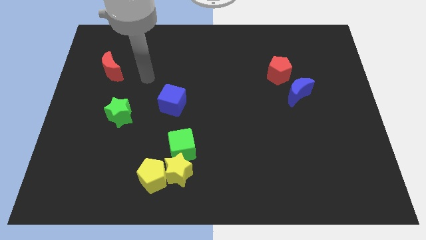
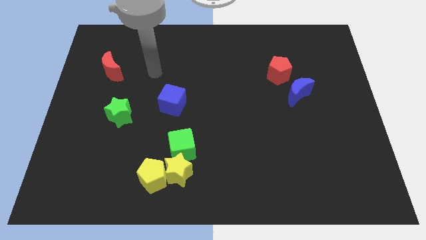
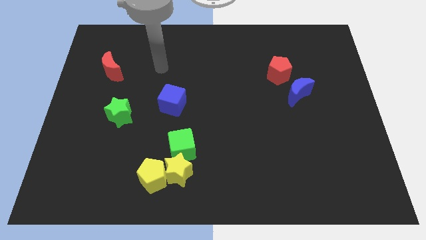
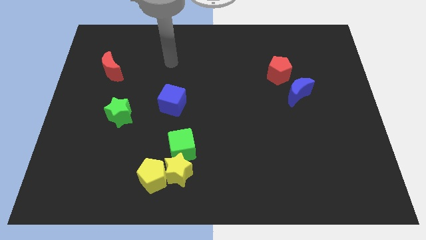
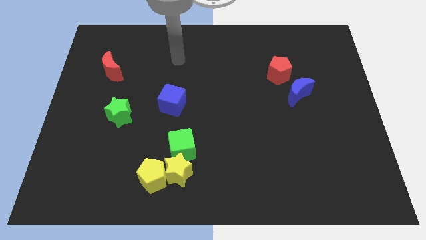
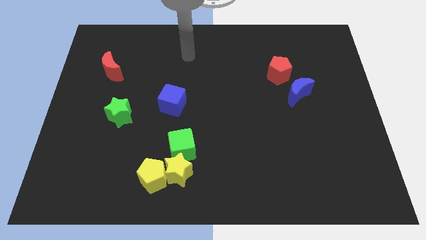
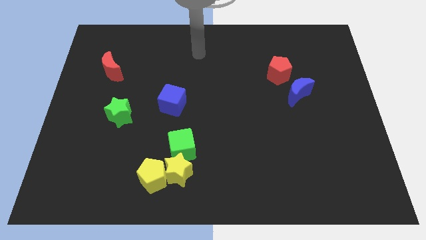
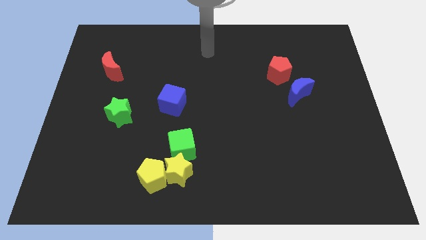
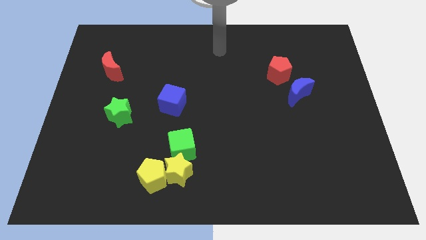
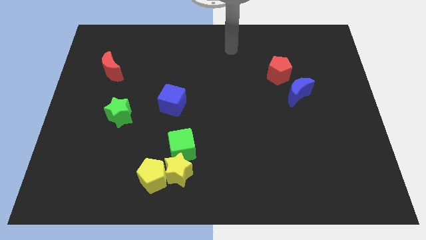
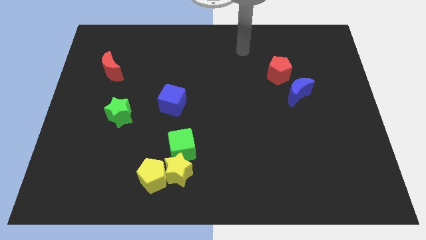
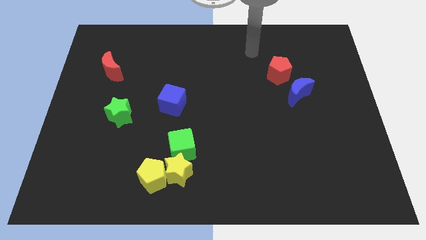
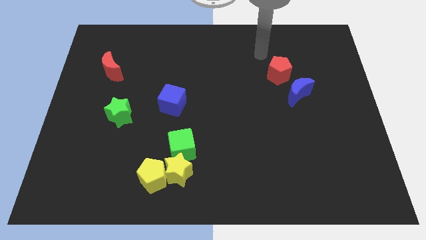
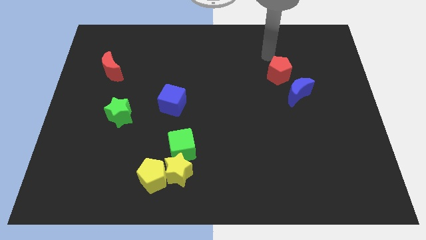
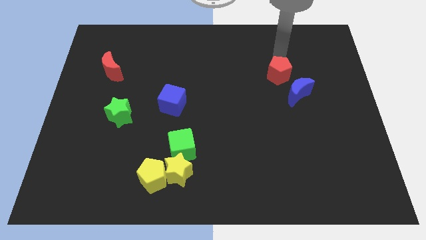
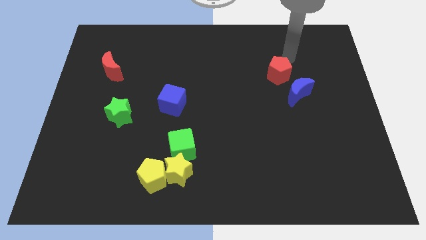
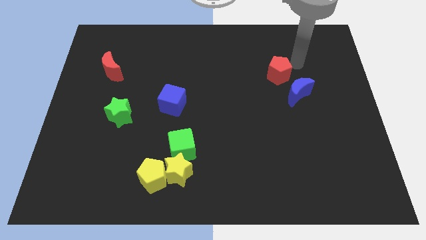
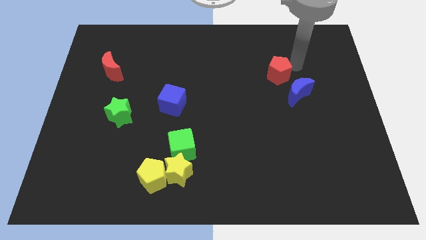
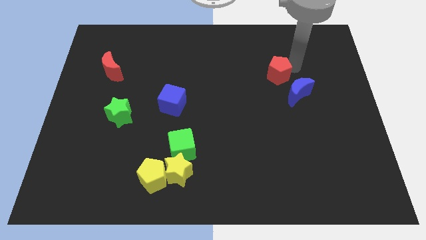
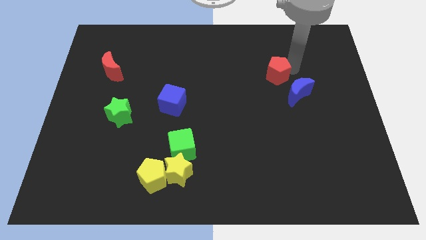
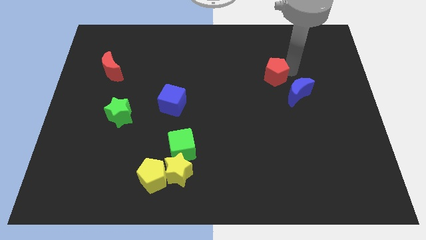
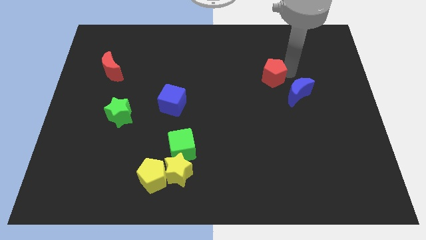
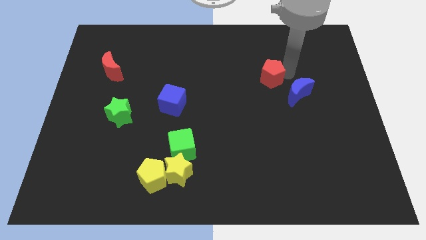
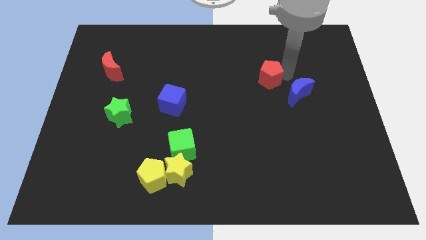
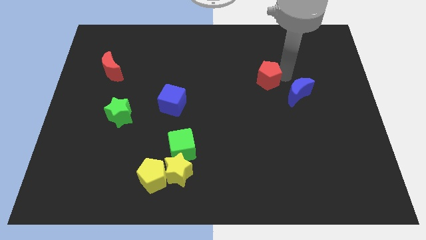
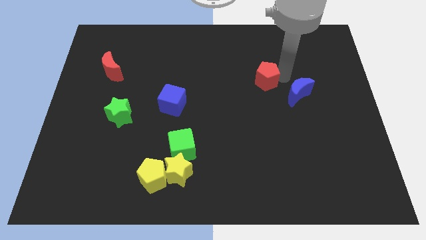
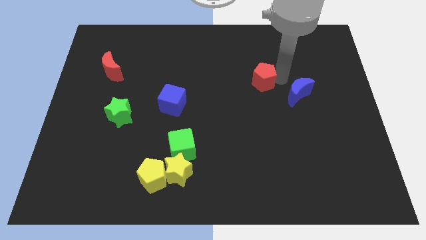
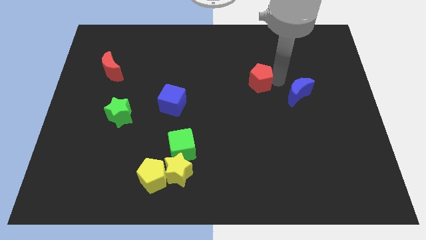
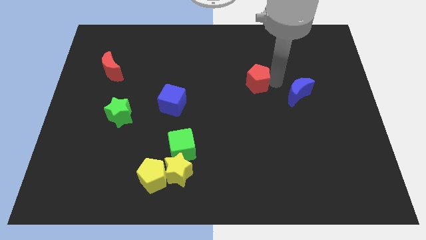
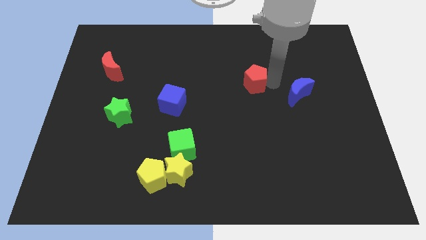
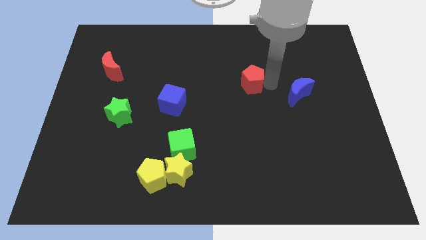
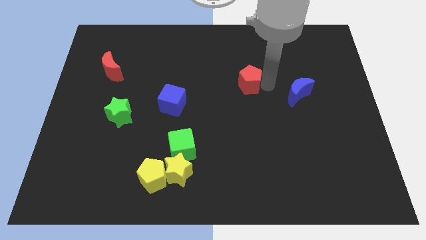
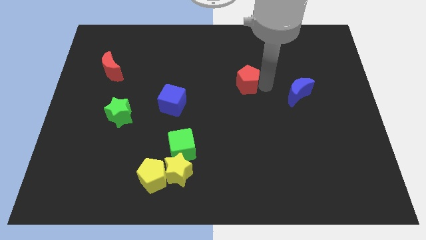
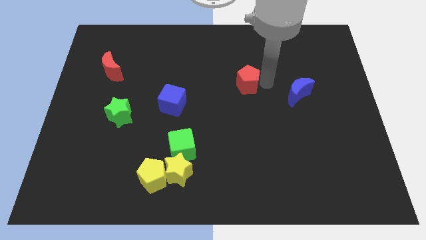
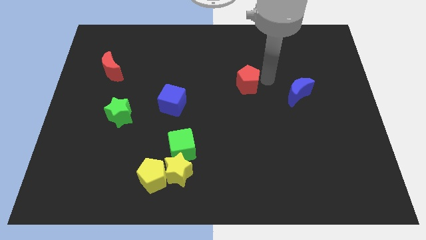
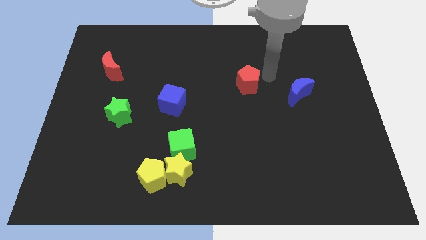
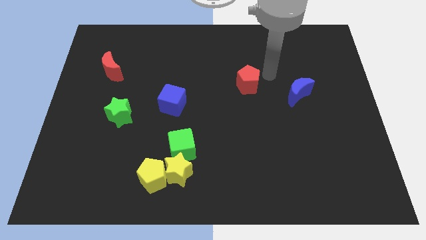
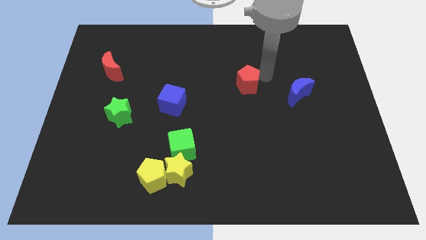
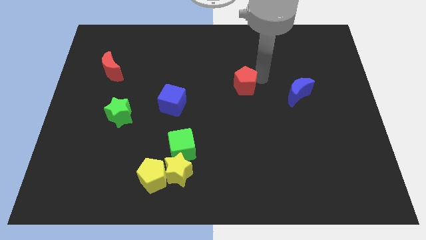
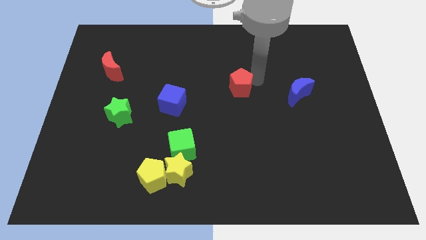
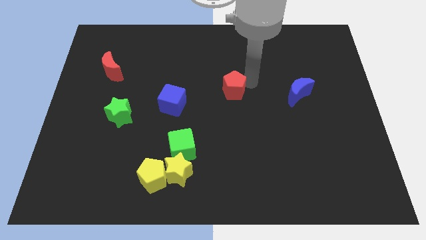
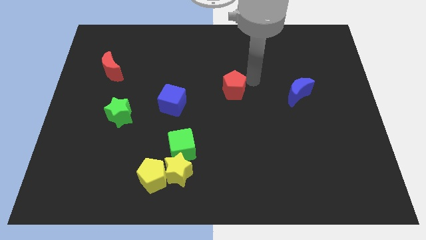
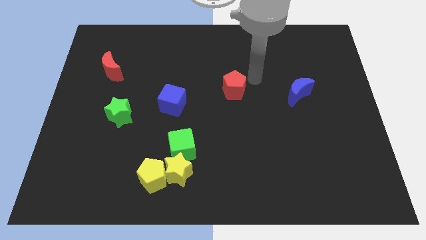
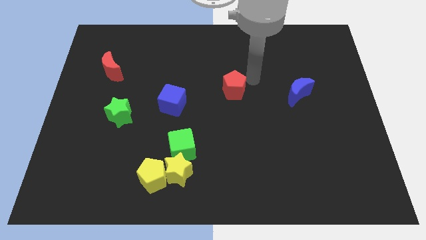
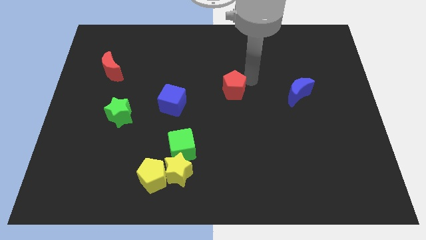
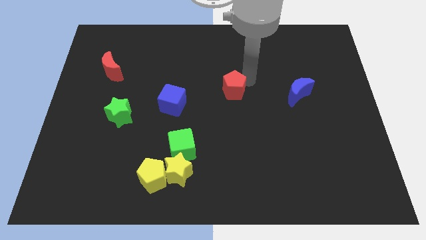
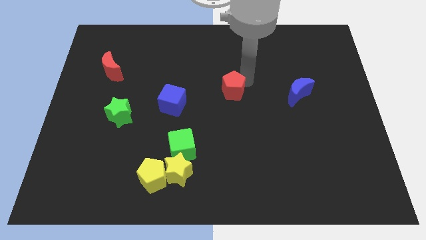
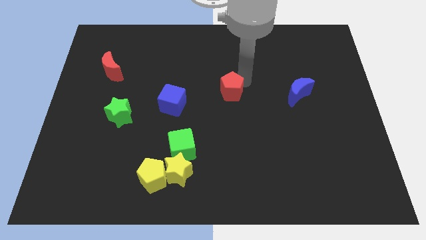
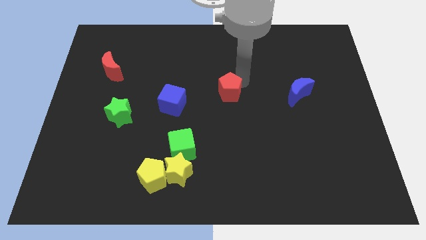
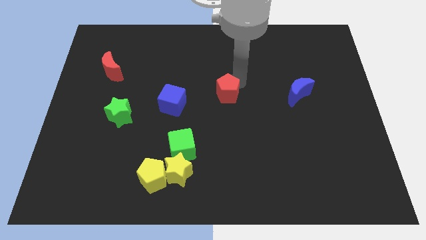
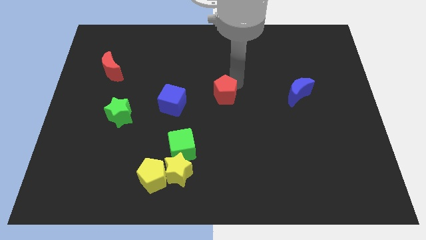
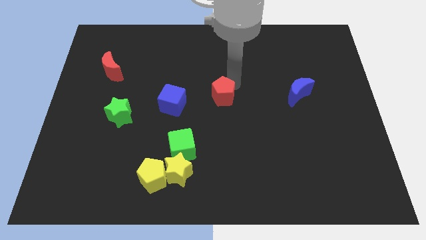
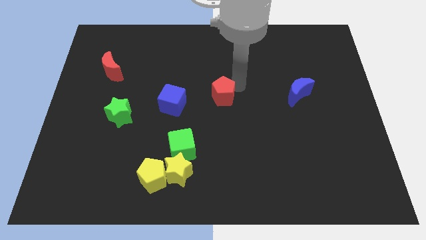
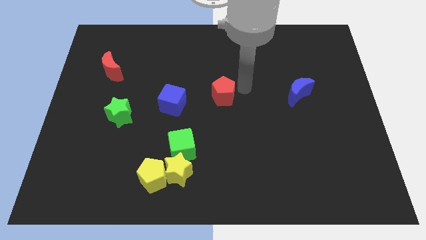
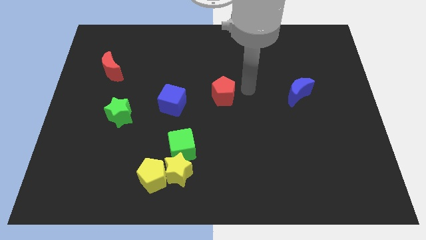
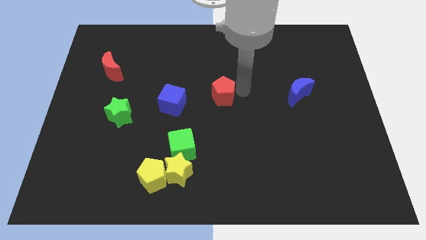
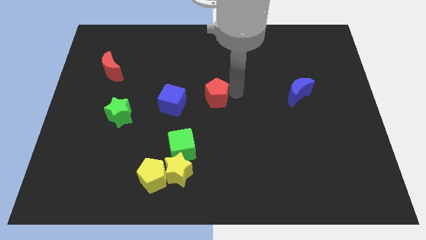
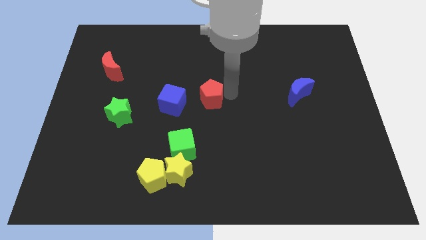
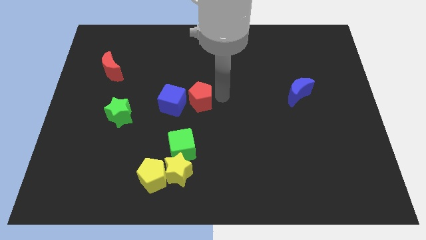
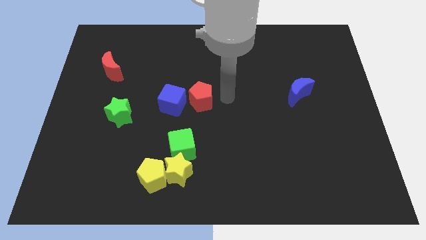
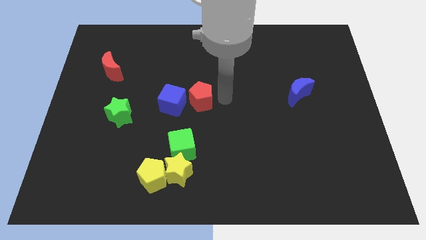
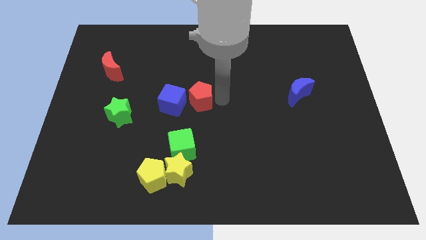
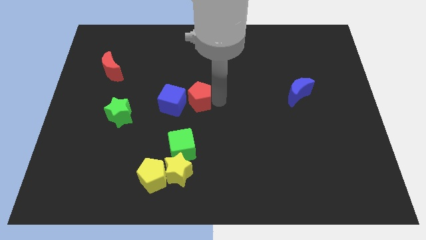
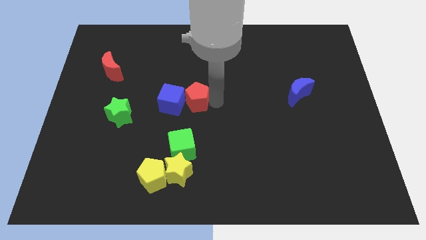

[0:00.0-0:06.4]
put the red pentagon close to the blue cube
